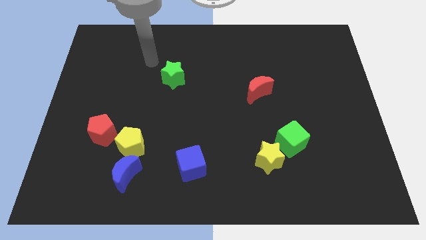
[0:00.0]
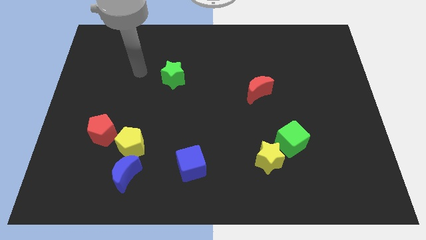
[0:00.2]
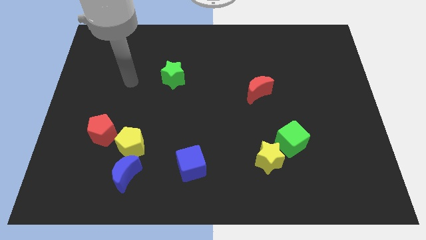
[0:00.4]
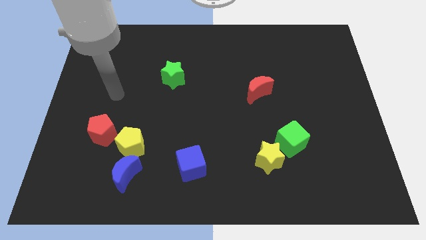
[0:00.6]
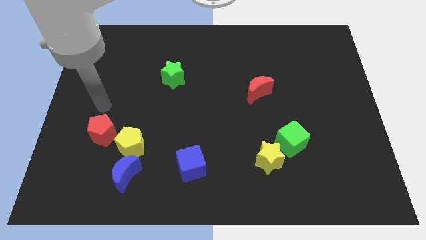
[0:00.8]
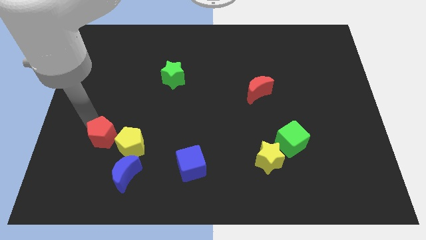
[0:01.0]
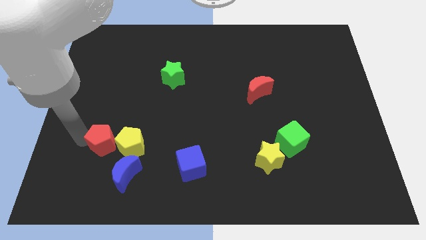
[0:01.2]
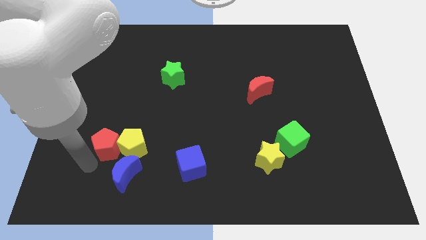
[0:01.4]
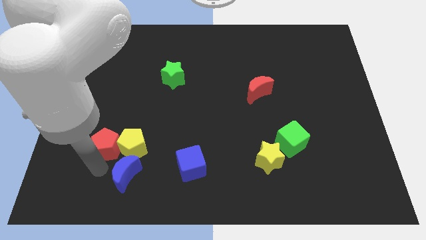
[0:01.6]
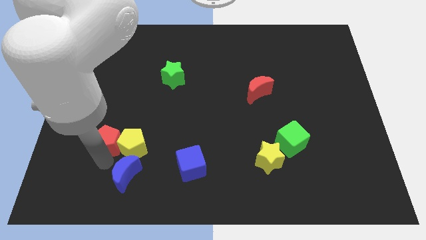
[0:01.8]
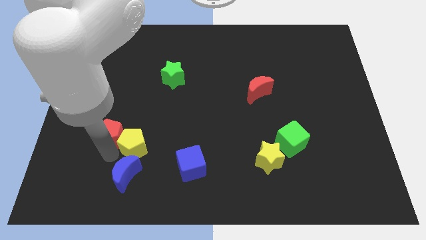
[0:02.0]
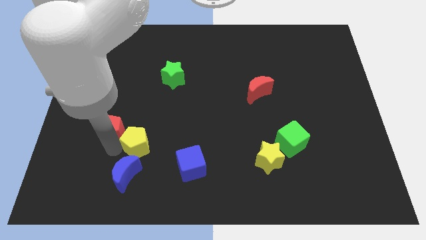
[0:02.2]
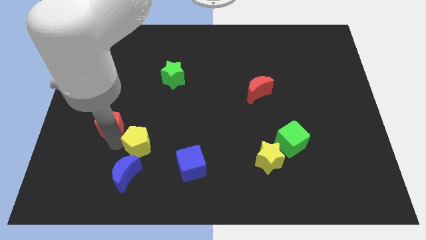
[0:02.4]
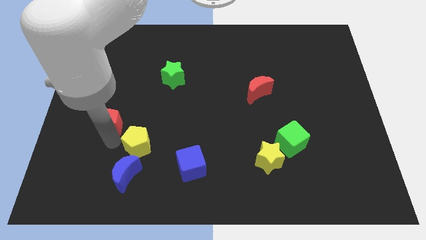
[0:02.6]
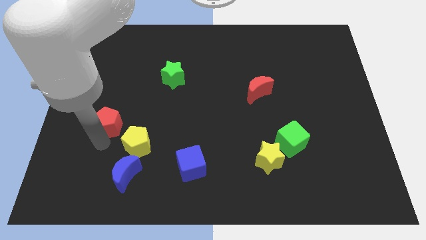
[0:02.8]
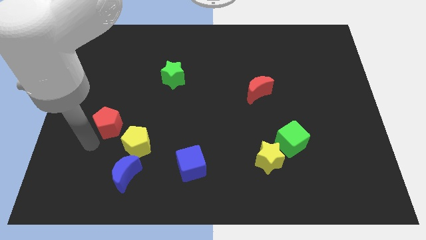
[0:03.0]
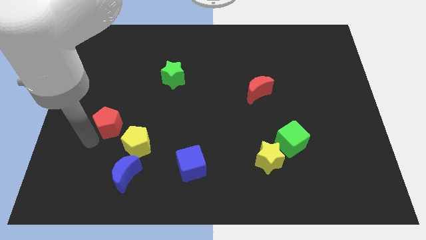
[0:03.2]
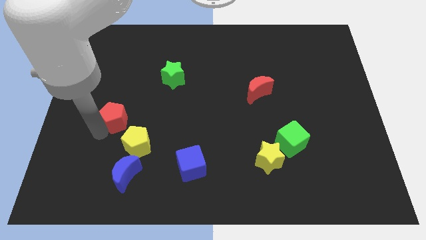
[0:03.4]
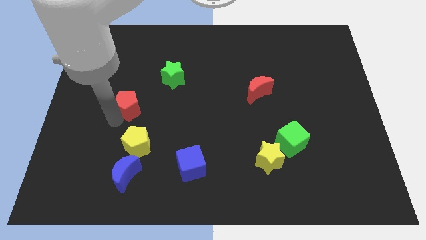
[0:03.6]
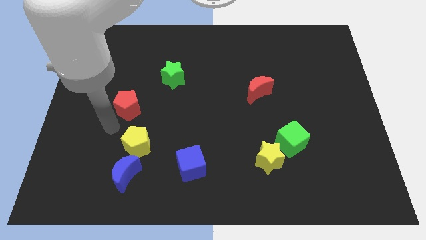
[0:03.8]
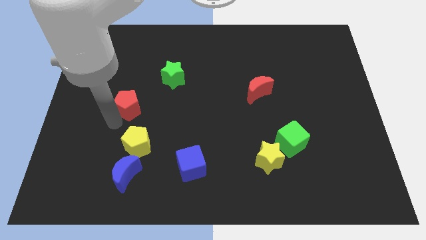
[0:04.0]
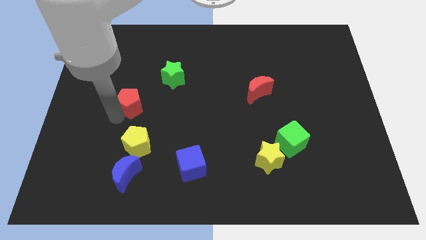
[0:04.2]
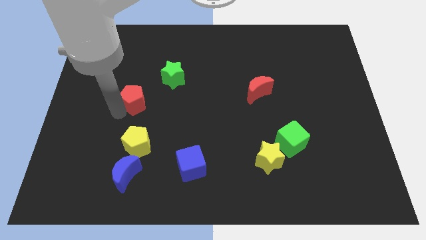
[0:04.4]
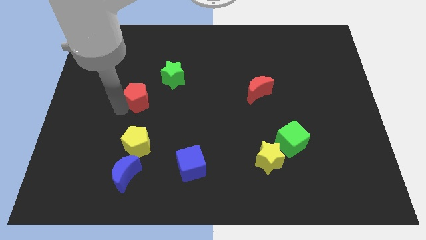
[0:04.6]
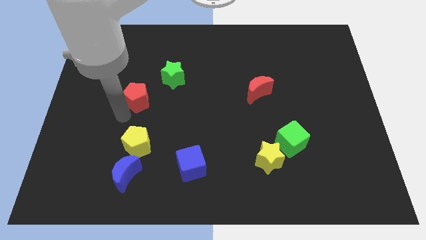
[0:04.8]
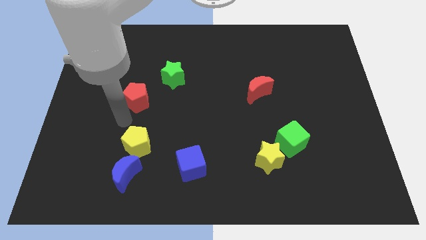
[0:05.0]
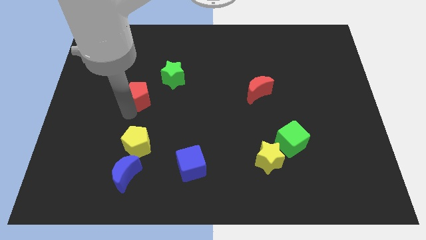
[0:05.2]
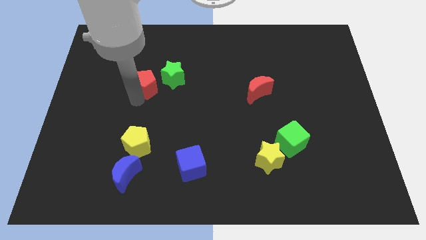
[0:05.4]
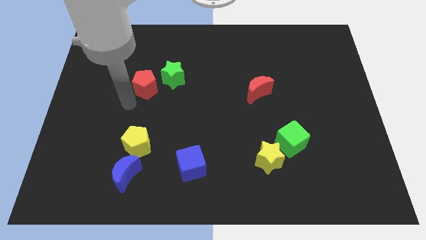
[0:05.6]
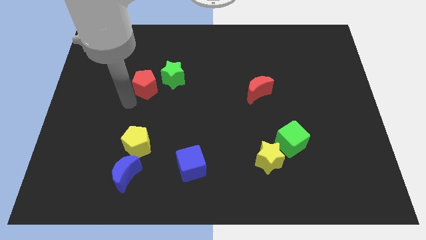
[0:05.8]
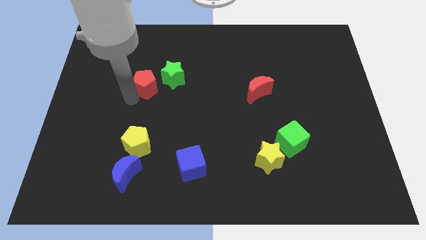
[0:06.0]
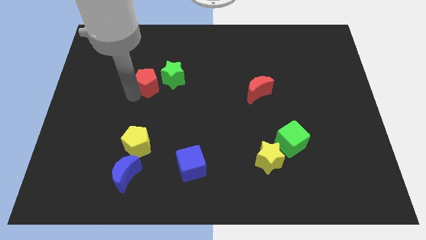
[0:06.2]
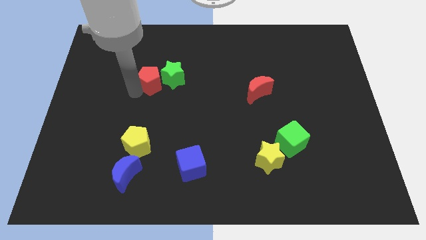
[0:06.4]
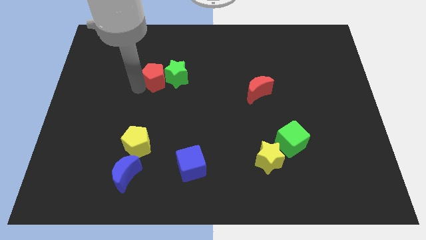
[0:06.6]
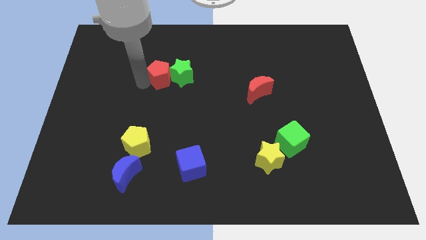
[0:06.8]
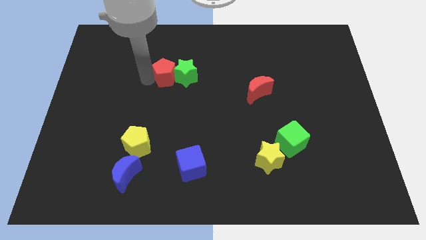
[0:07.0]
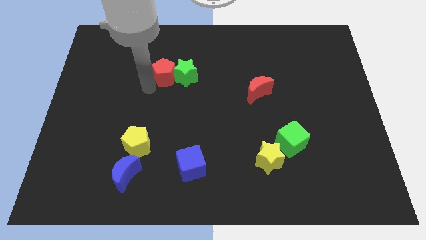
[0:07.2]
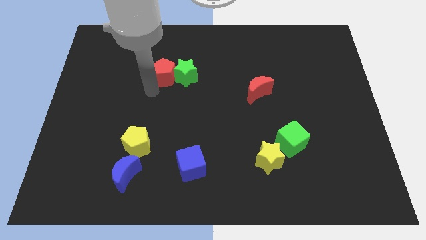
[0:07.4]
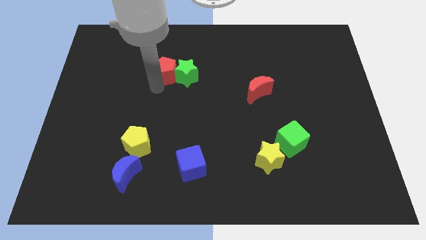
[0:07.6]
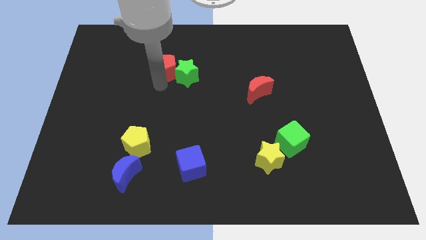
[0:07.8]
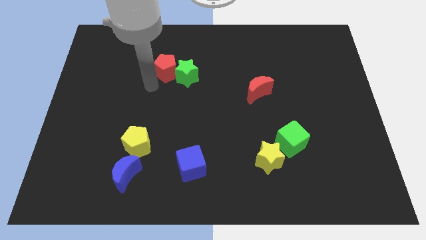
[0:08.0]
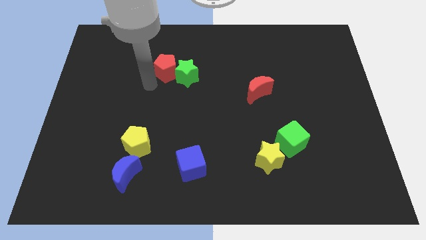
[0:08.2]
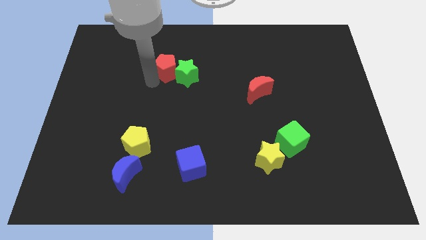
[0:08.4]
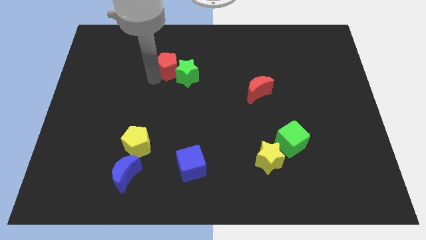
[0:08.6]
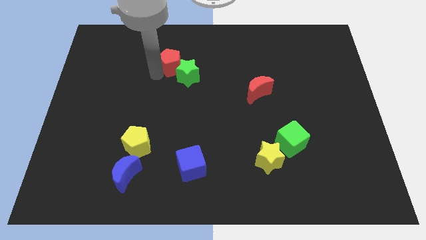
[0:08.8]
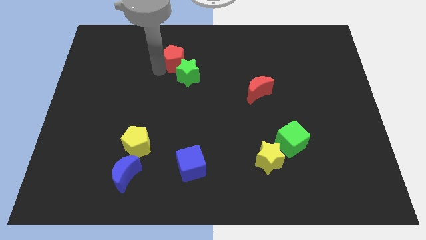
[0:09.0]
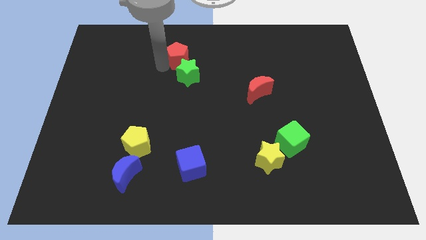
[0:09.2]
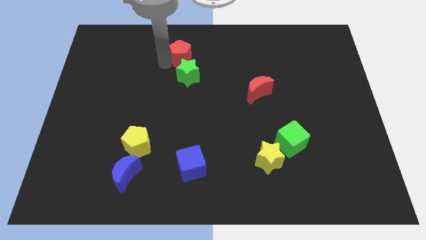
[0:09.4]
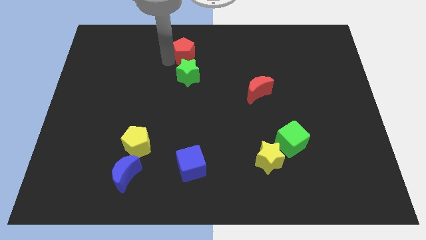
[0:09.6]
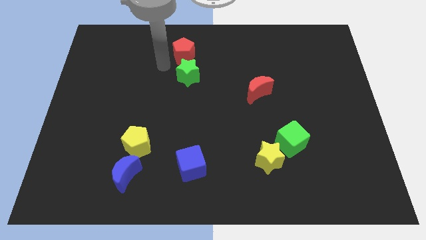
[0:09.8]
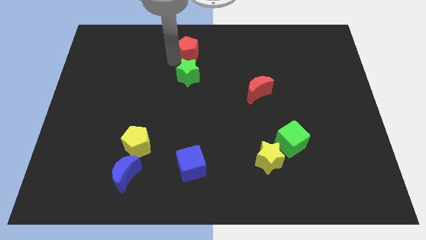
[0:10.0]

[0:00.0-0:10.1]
push the red pentagon to the top side

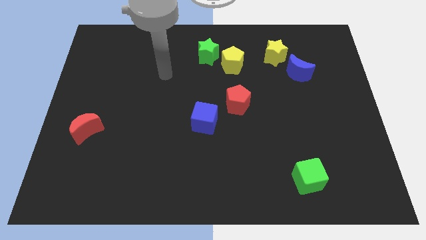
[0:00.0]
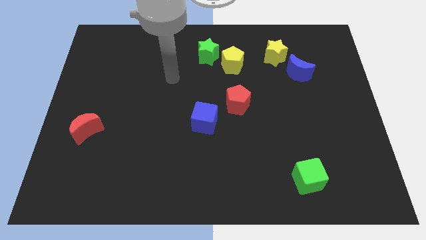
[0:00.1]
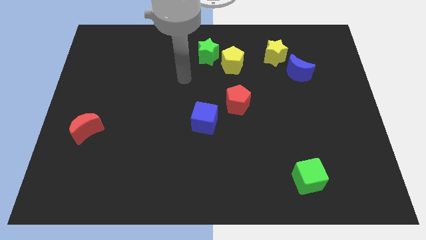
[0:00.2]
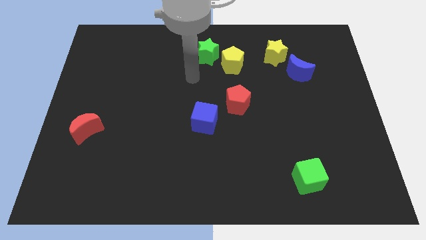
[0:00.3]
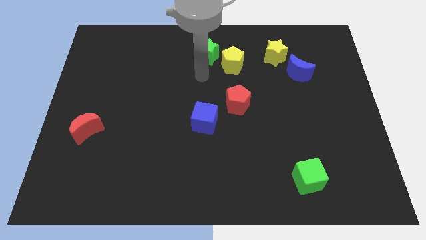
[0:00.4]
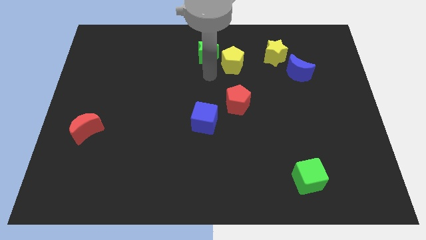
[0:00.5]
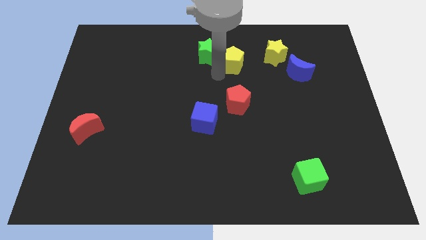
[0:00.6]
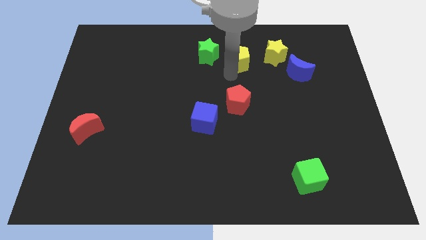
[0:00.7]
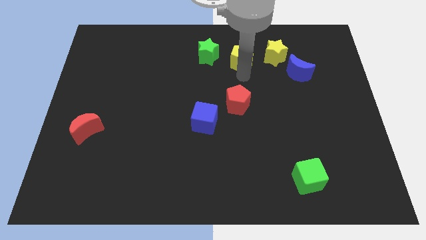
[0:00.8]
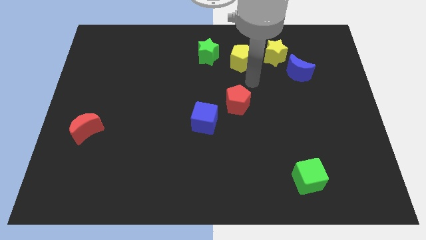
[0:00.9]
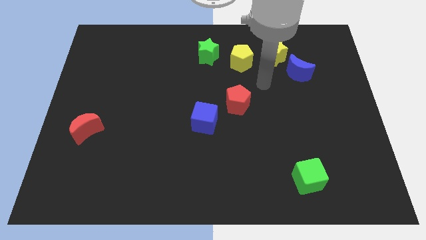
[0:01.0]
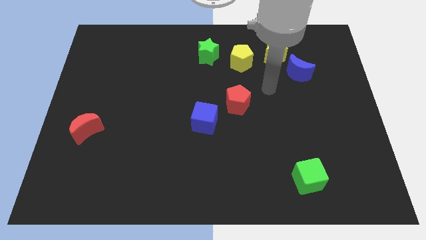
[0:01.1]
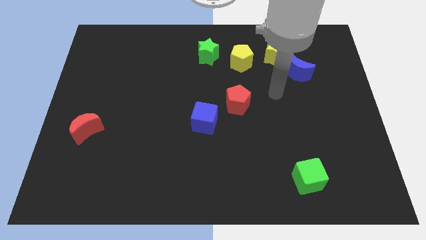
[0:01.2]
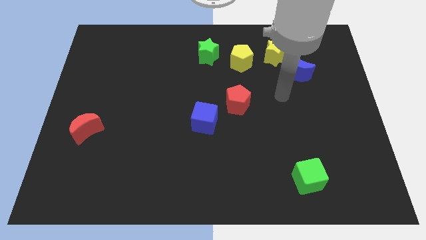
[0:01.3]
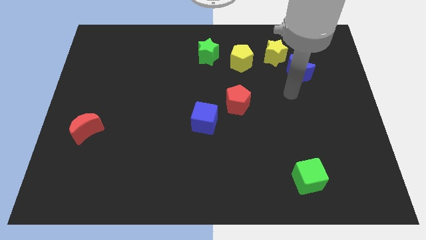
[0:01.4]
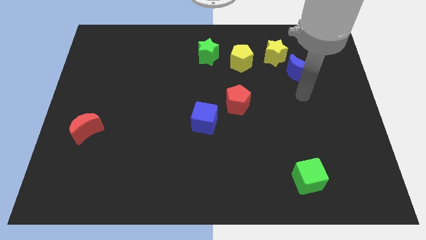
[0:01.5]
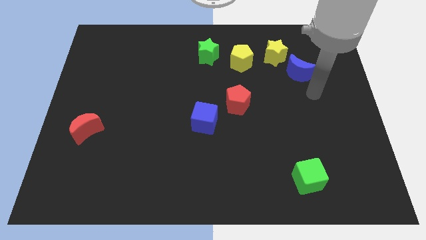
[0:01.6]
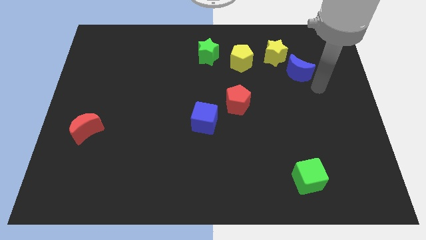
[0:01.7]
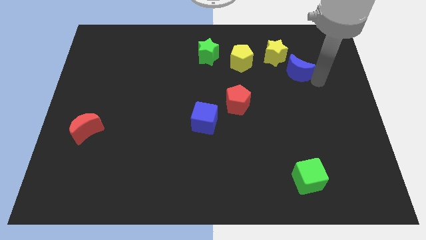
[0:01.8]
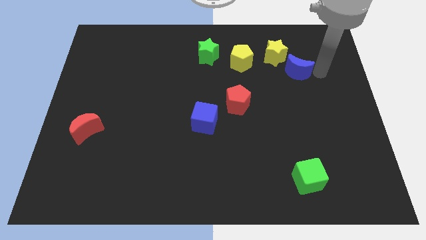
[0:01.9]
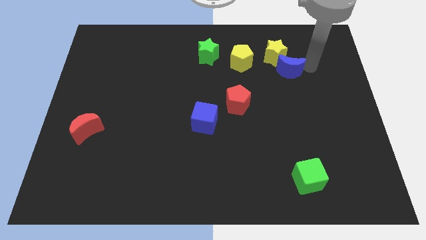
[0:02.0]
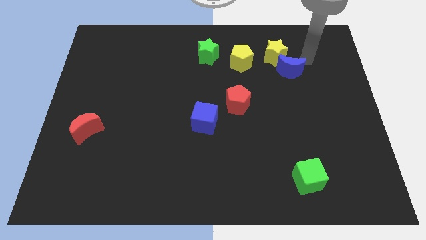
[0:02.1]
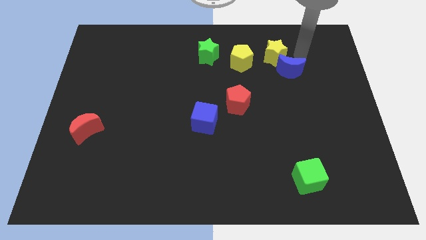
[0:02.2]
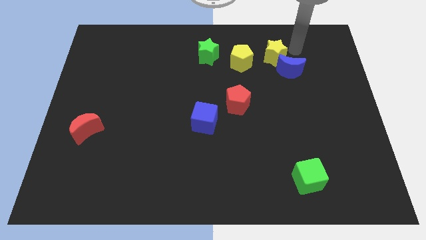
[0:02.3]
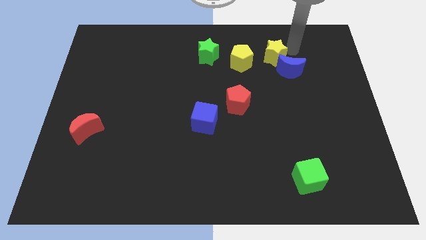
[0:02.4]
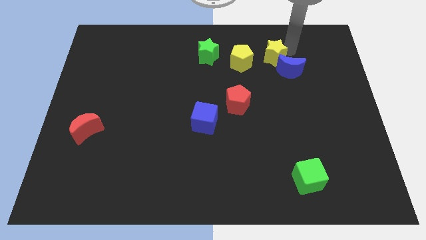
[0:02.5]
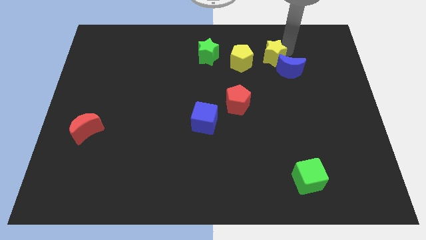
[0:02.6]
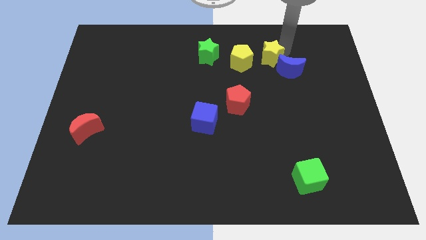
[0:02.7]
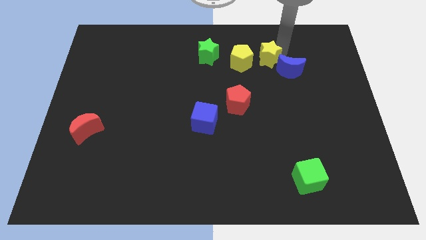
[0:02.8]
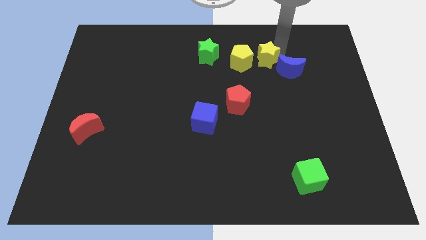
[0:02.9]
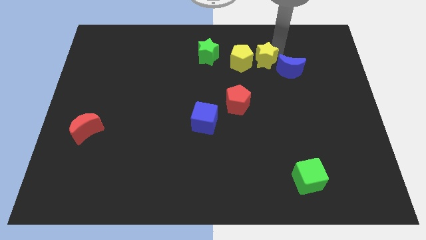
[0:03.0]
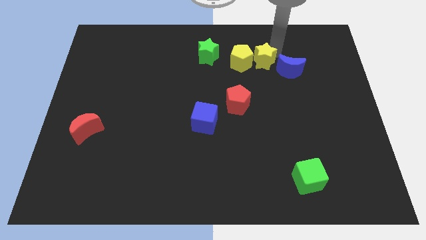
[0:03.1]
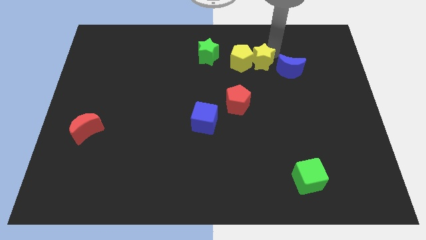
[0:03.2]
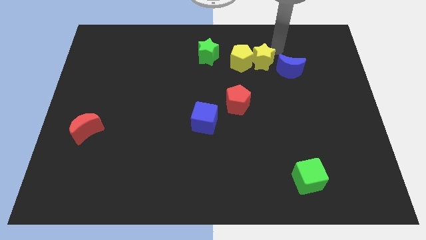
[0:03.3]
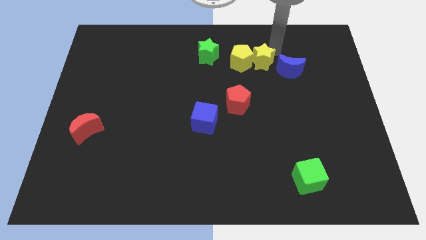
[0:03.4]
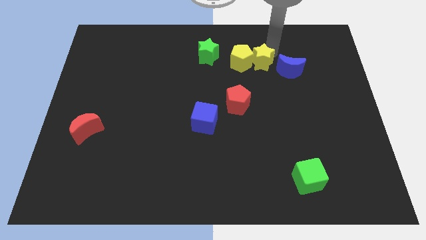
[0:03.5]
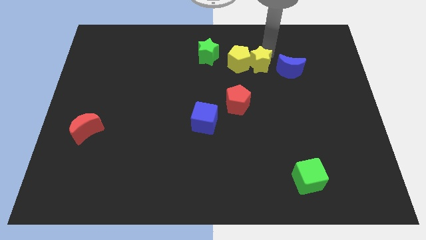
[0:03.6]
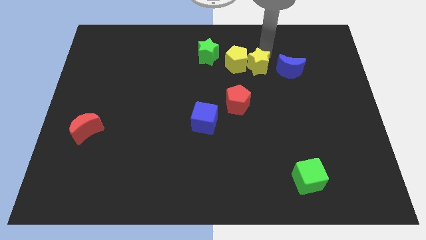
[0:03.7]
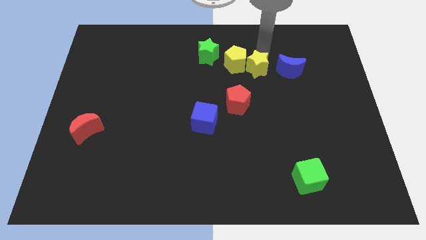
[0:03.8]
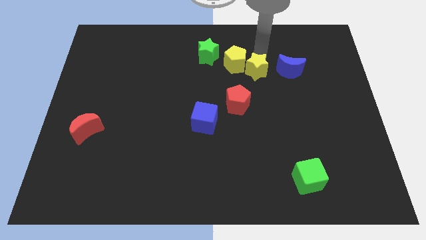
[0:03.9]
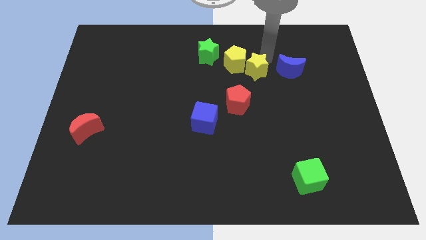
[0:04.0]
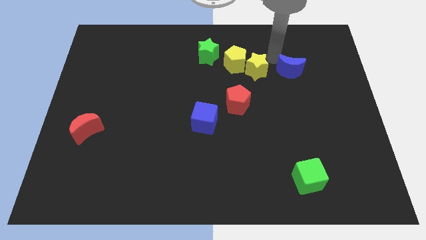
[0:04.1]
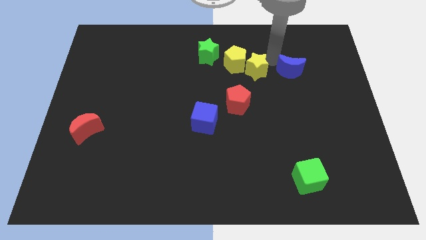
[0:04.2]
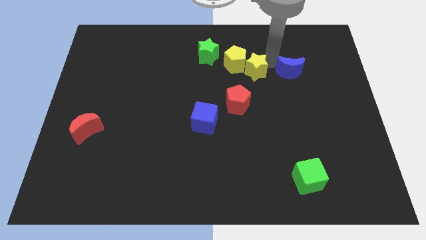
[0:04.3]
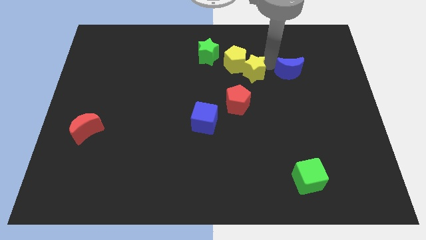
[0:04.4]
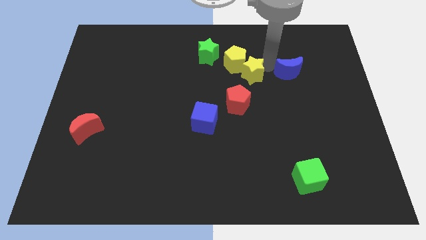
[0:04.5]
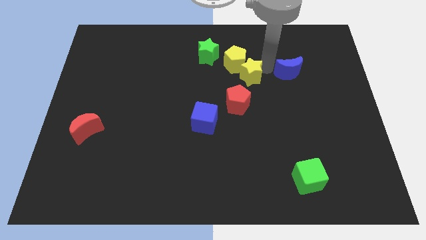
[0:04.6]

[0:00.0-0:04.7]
slide the yellow star to the middle
